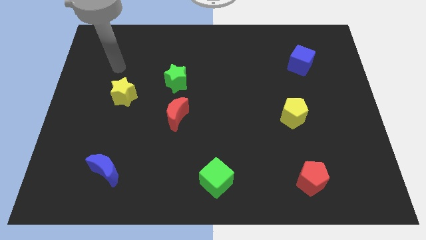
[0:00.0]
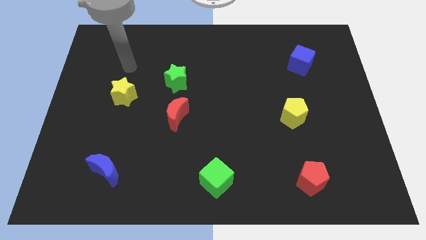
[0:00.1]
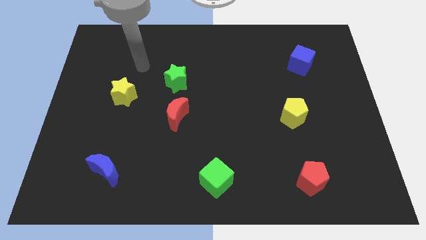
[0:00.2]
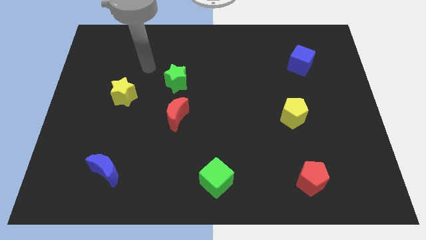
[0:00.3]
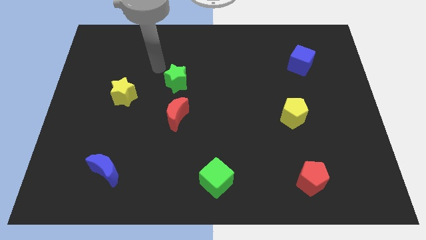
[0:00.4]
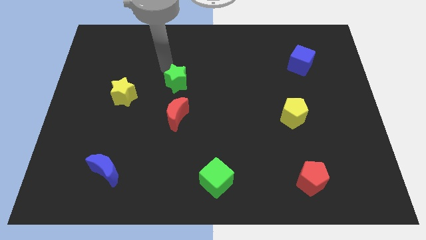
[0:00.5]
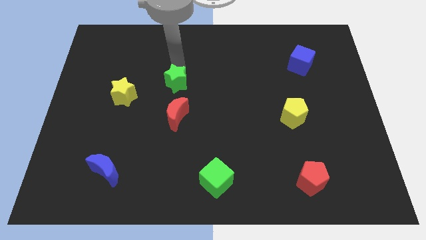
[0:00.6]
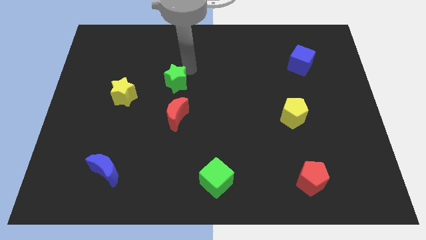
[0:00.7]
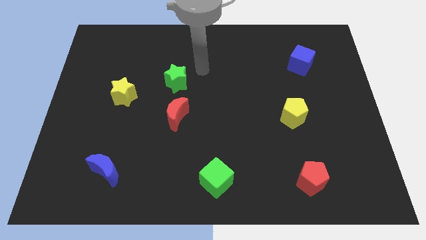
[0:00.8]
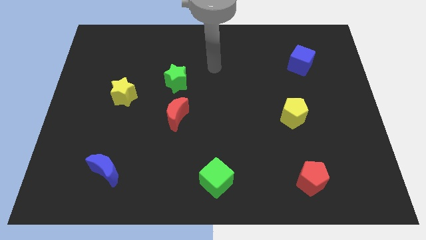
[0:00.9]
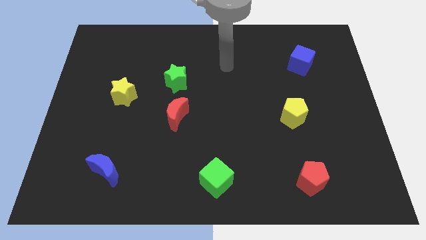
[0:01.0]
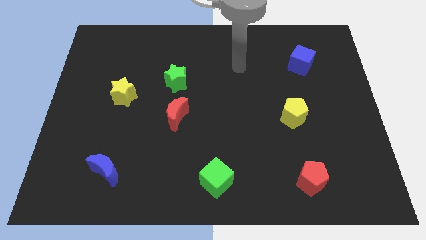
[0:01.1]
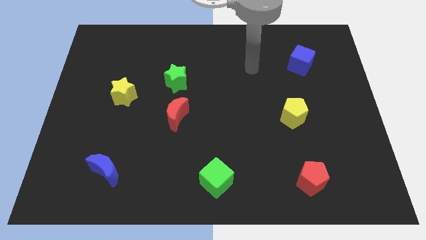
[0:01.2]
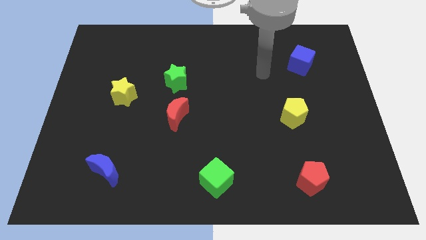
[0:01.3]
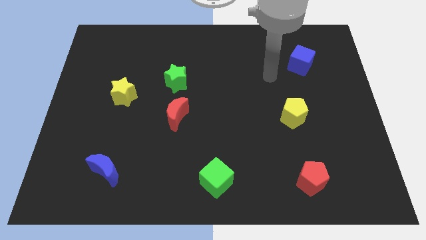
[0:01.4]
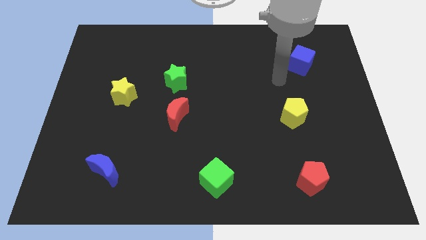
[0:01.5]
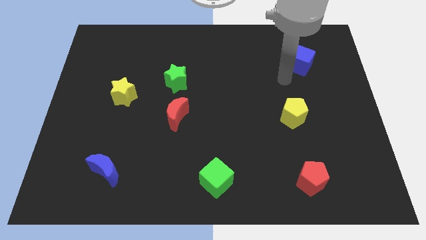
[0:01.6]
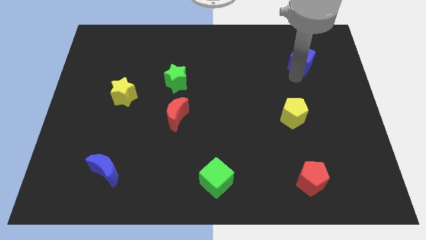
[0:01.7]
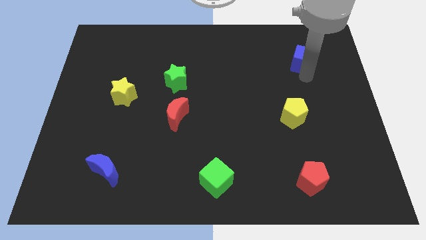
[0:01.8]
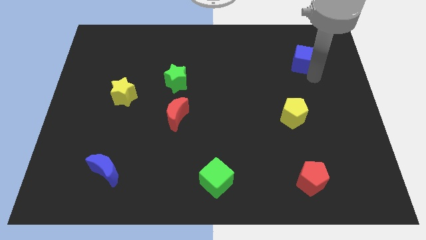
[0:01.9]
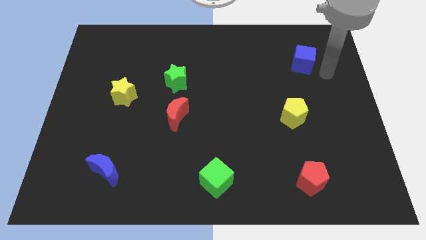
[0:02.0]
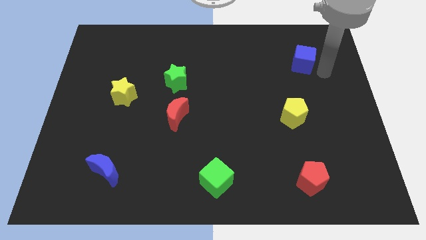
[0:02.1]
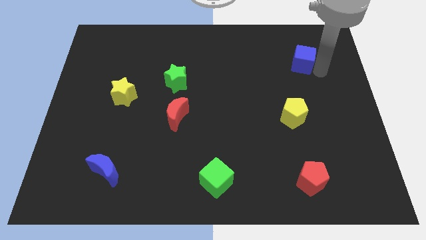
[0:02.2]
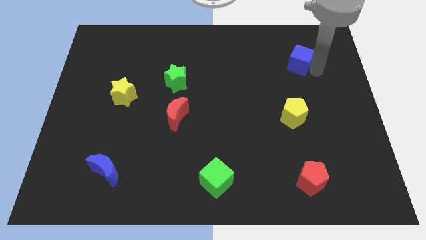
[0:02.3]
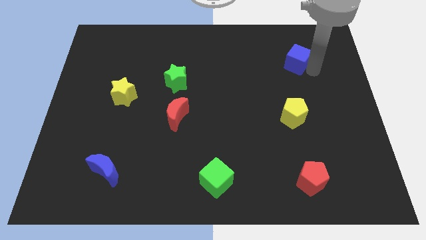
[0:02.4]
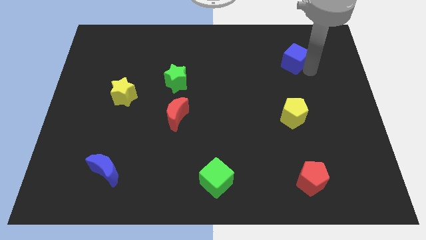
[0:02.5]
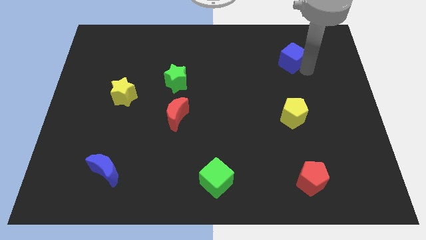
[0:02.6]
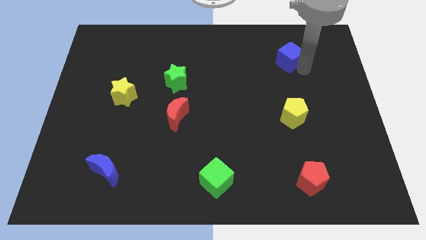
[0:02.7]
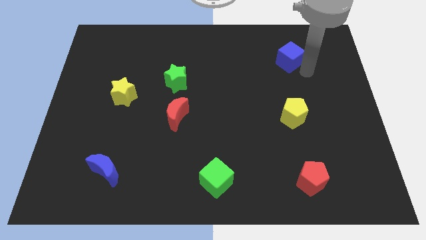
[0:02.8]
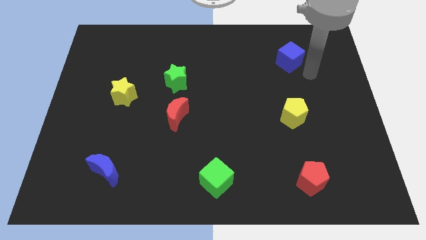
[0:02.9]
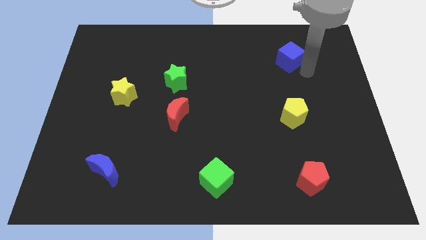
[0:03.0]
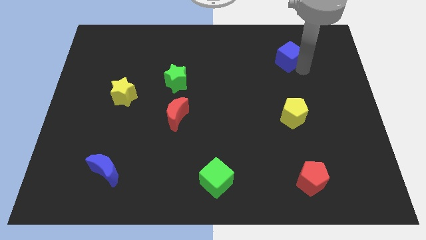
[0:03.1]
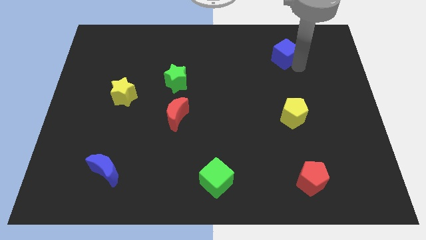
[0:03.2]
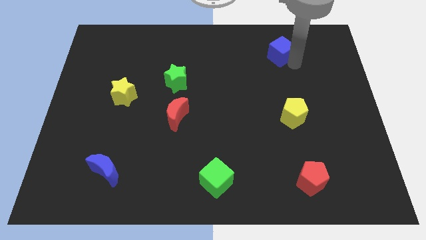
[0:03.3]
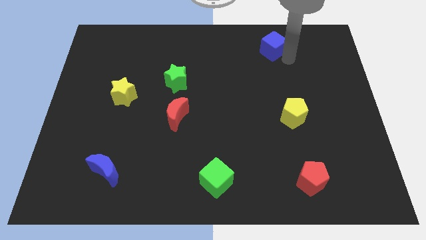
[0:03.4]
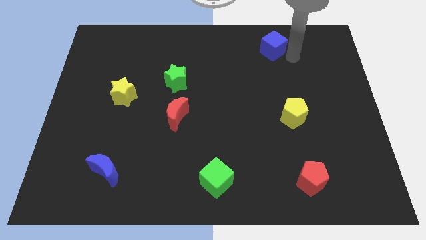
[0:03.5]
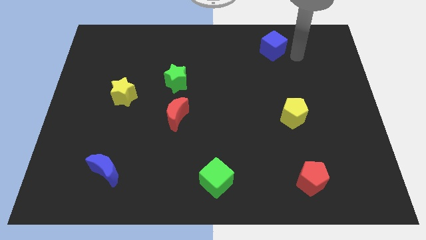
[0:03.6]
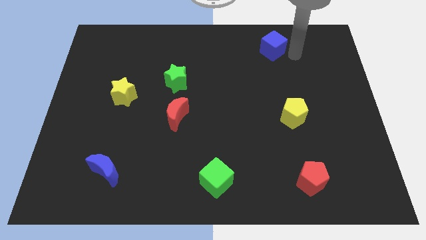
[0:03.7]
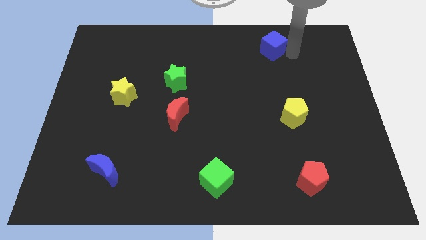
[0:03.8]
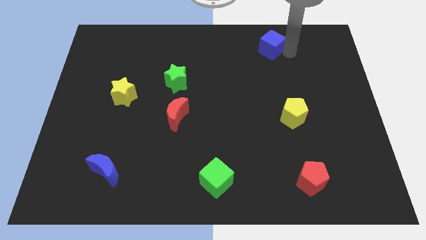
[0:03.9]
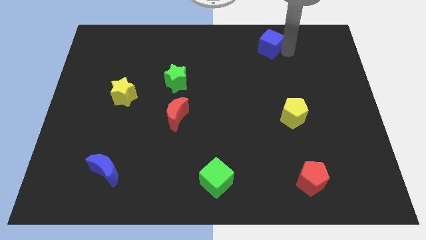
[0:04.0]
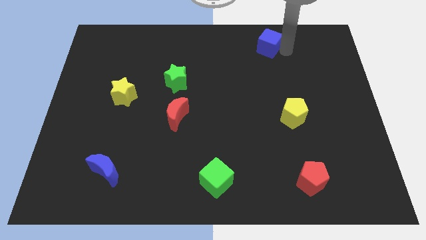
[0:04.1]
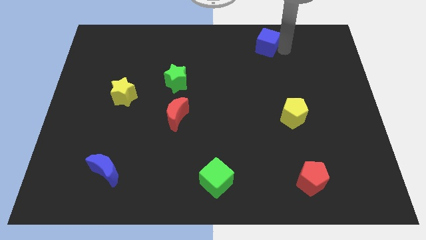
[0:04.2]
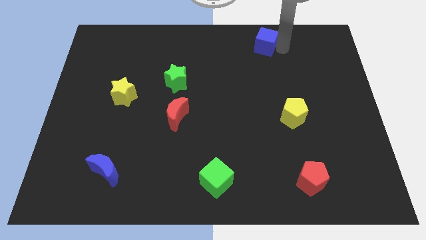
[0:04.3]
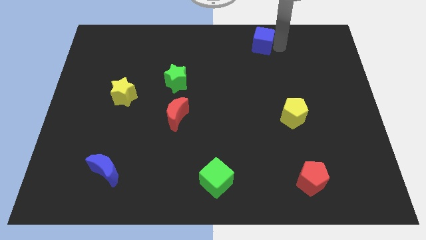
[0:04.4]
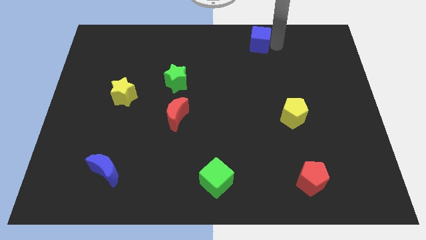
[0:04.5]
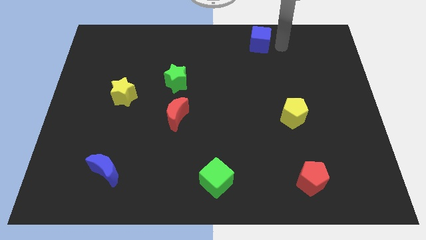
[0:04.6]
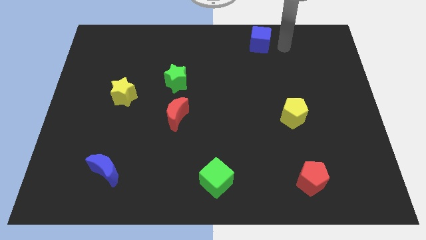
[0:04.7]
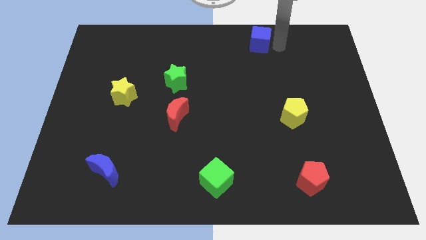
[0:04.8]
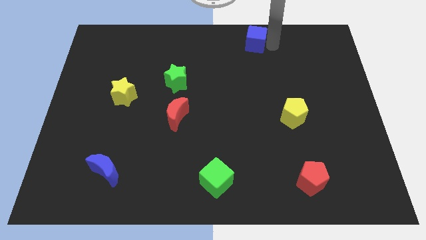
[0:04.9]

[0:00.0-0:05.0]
push the blue cube to the top

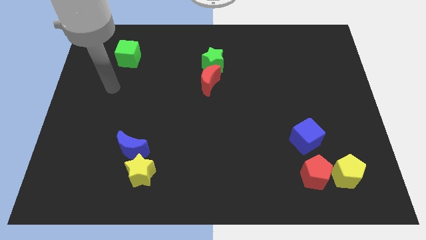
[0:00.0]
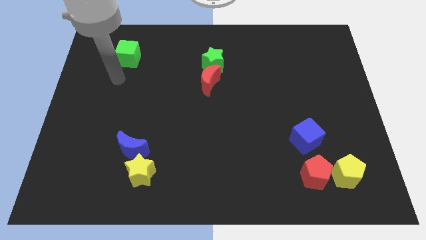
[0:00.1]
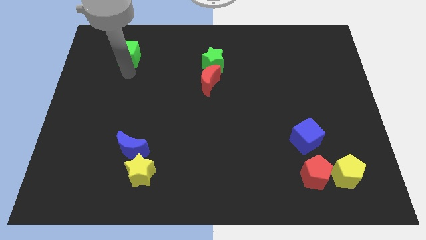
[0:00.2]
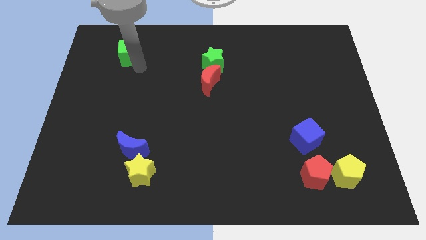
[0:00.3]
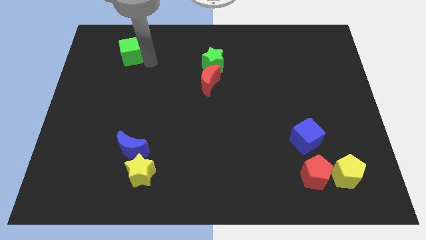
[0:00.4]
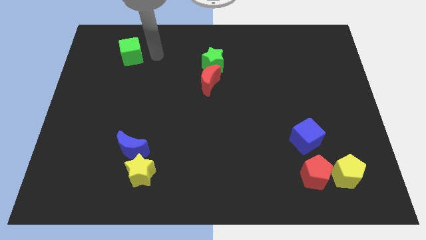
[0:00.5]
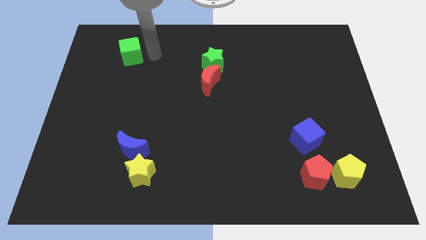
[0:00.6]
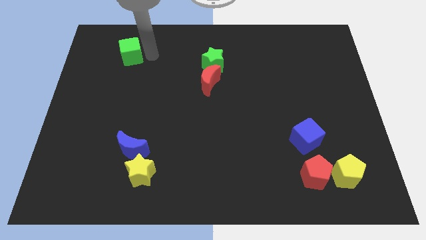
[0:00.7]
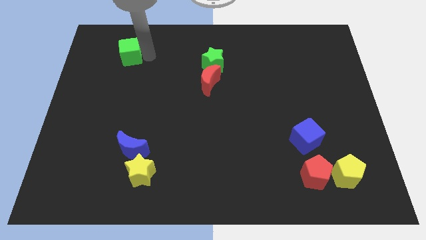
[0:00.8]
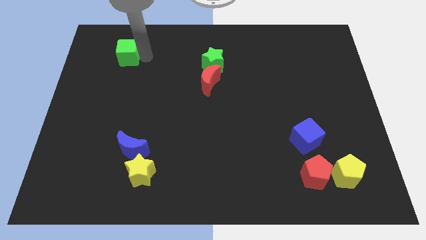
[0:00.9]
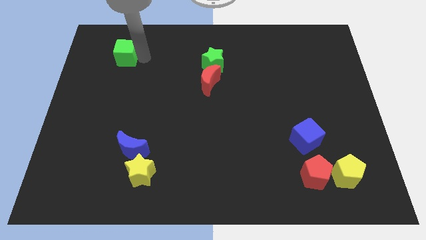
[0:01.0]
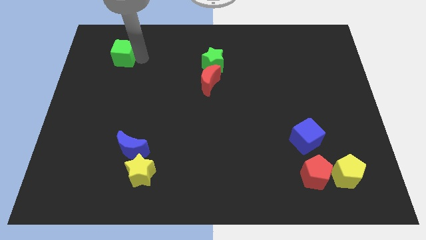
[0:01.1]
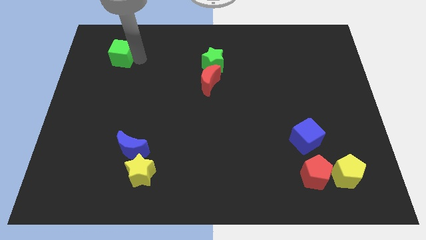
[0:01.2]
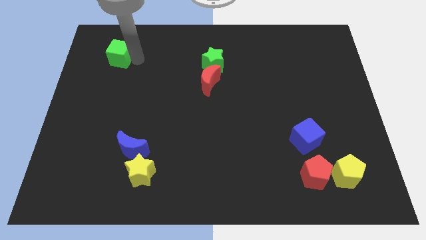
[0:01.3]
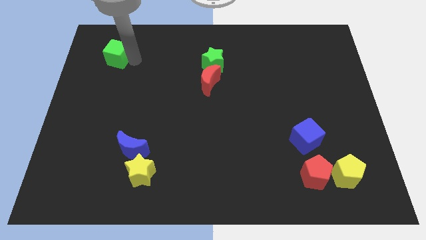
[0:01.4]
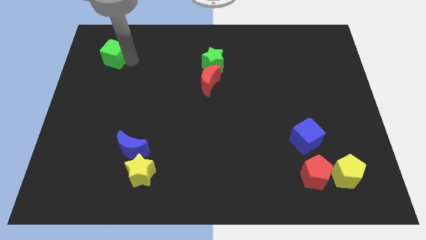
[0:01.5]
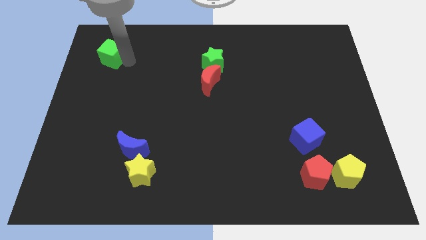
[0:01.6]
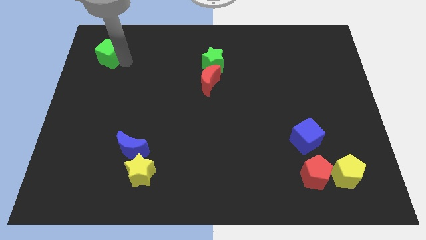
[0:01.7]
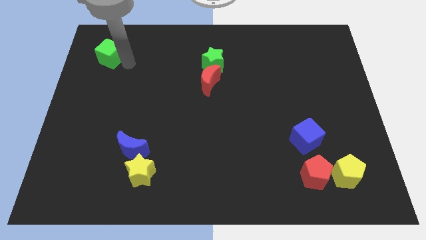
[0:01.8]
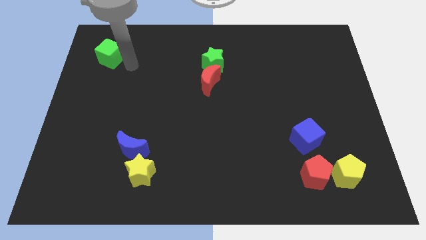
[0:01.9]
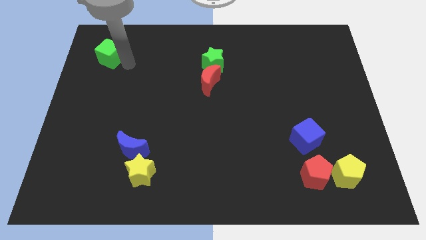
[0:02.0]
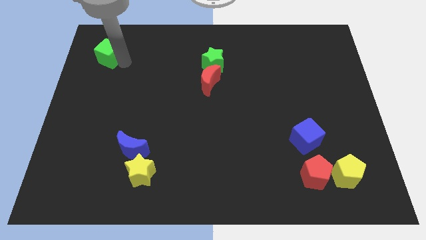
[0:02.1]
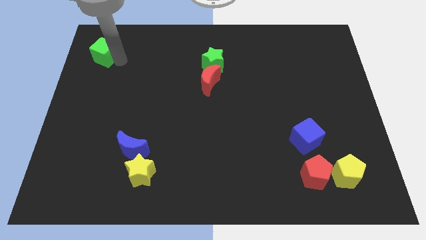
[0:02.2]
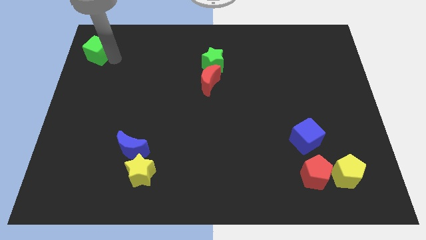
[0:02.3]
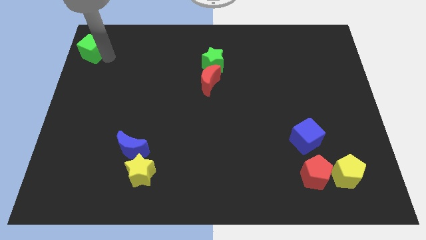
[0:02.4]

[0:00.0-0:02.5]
put the green cube to the upper left corner
